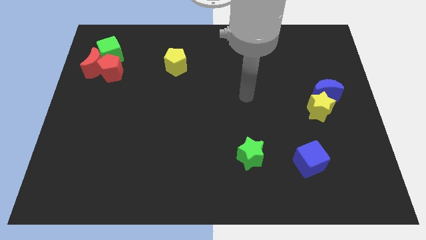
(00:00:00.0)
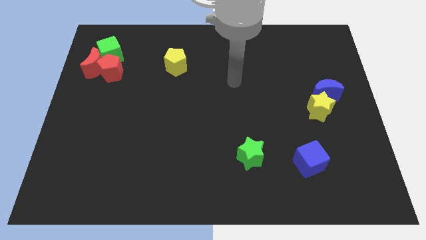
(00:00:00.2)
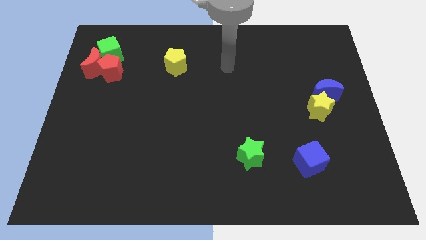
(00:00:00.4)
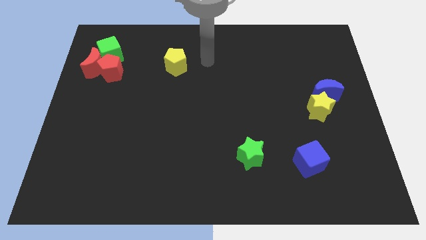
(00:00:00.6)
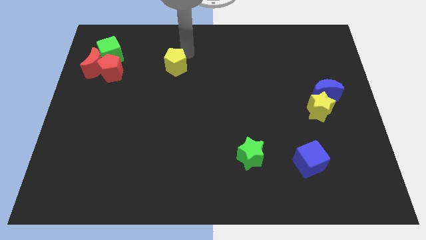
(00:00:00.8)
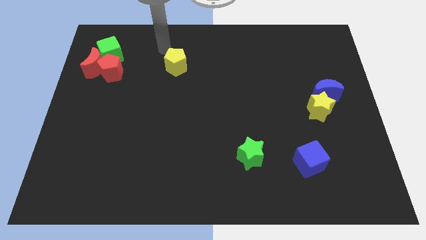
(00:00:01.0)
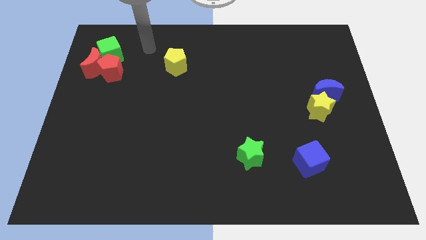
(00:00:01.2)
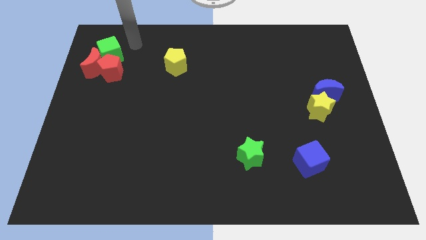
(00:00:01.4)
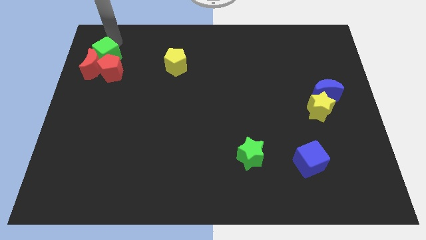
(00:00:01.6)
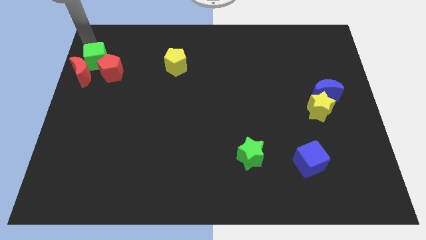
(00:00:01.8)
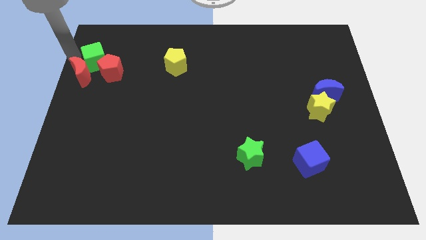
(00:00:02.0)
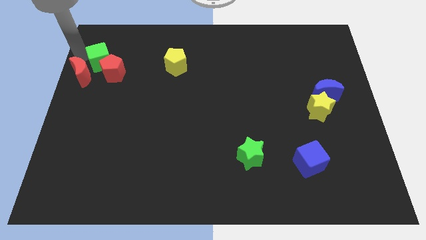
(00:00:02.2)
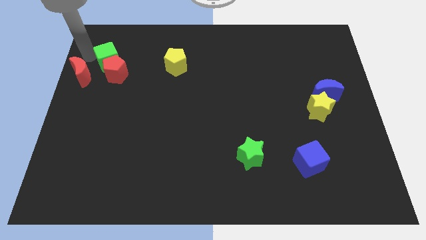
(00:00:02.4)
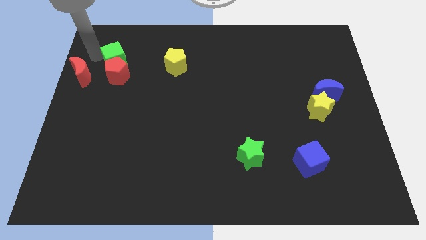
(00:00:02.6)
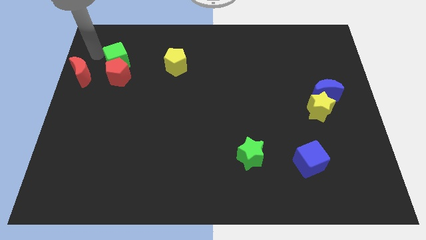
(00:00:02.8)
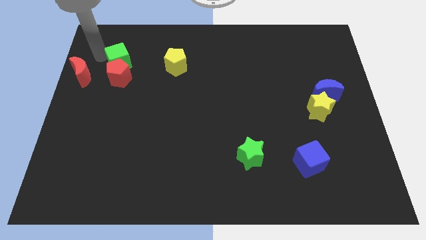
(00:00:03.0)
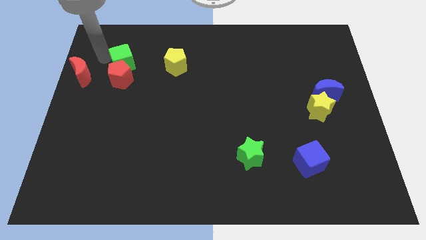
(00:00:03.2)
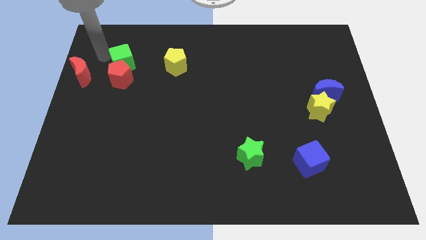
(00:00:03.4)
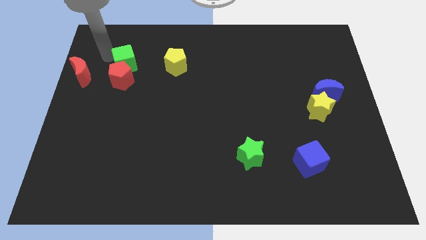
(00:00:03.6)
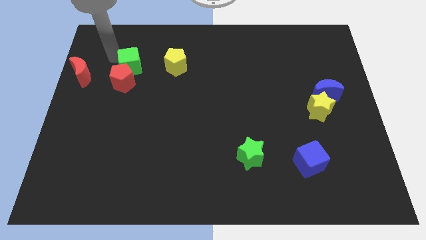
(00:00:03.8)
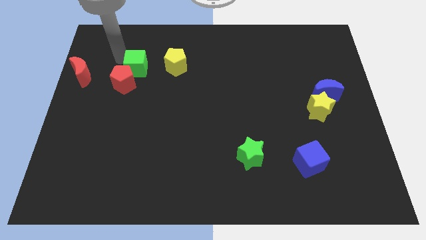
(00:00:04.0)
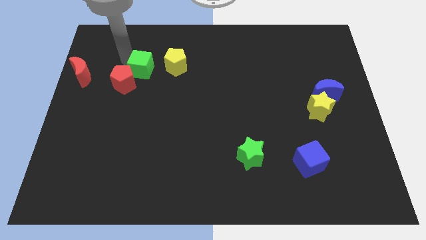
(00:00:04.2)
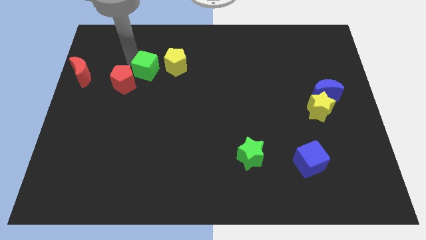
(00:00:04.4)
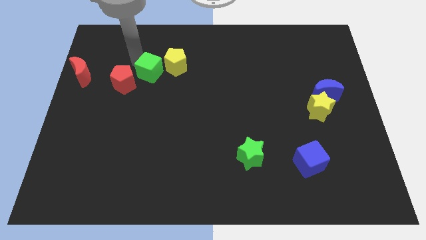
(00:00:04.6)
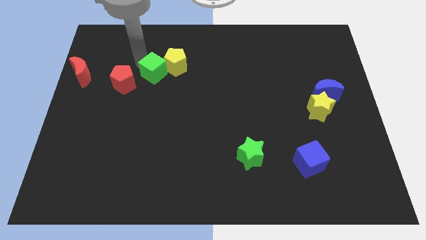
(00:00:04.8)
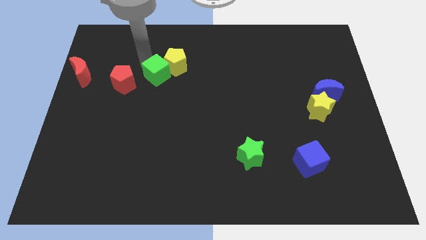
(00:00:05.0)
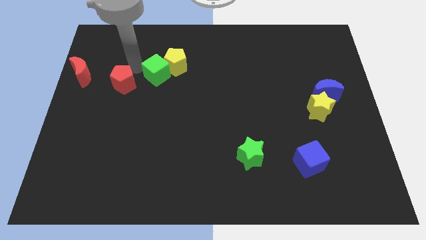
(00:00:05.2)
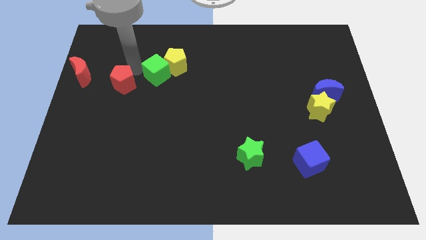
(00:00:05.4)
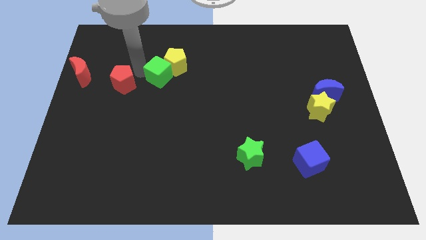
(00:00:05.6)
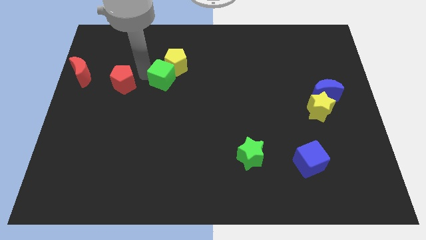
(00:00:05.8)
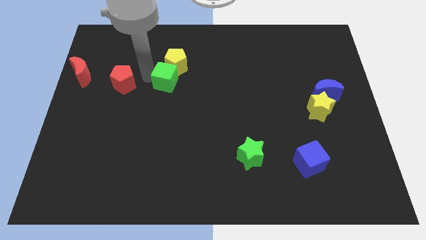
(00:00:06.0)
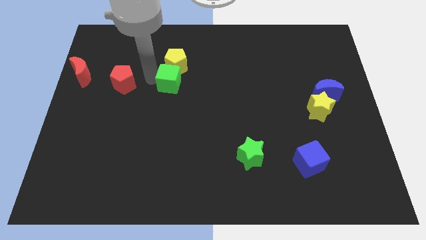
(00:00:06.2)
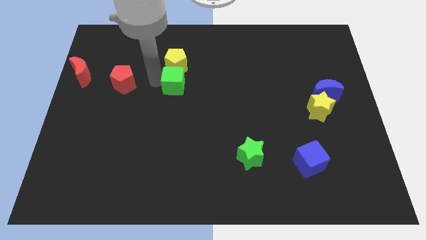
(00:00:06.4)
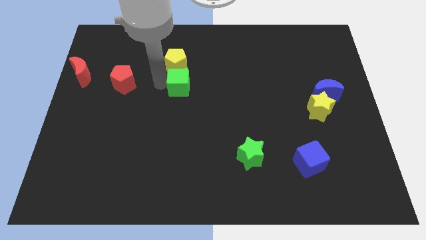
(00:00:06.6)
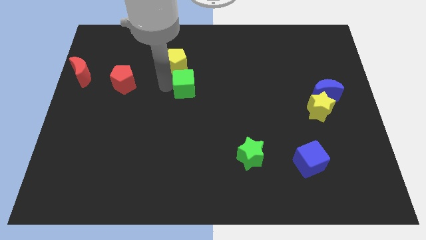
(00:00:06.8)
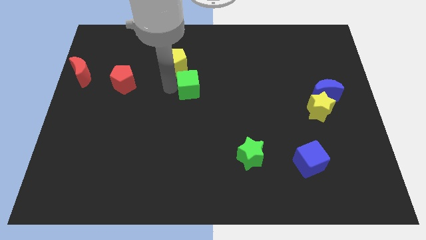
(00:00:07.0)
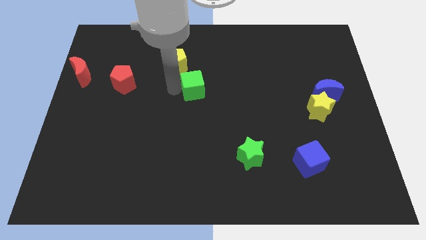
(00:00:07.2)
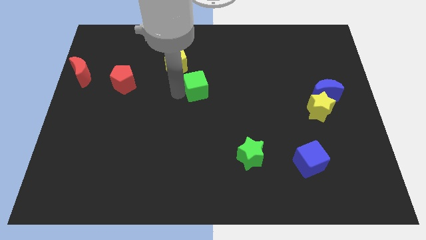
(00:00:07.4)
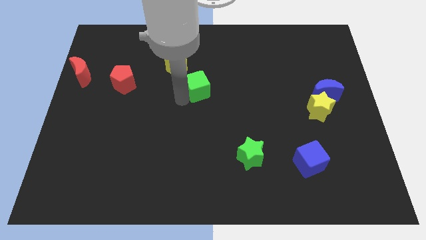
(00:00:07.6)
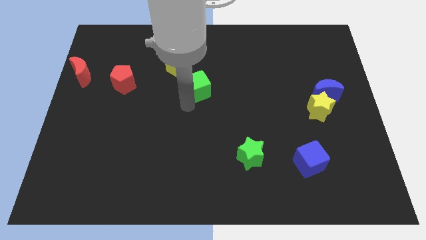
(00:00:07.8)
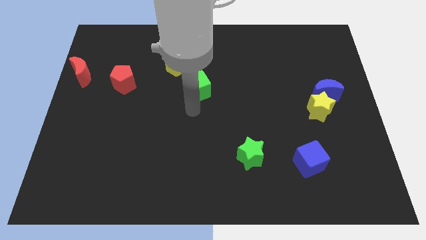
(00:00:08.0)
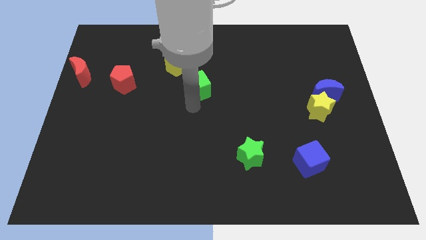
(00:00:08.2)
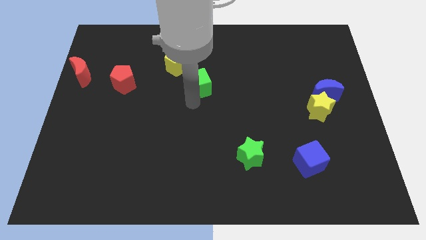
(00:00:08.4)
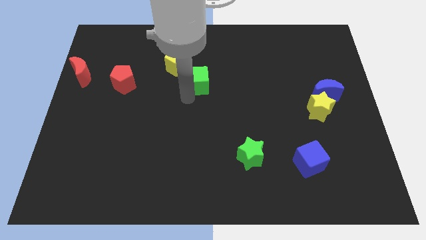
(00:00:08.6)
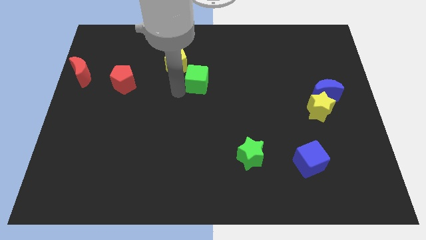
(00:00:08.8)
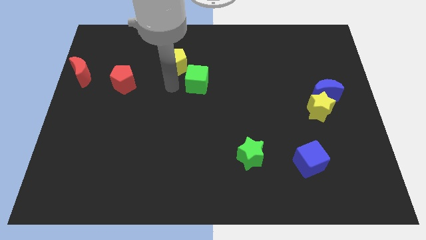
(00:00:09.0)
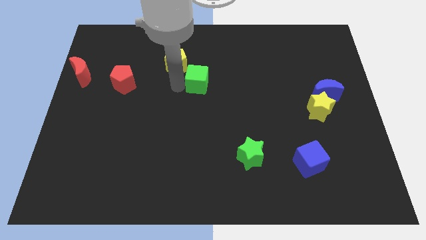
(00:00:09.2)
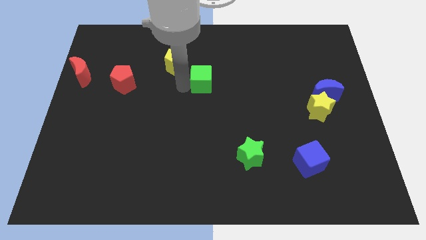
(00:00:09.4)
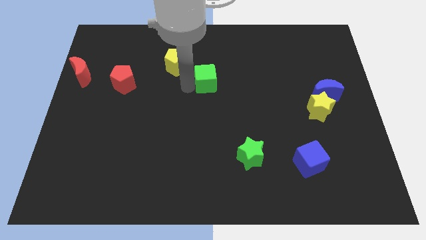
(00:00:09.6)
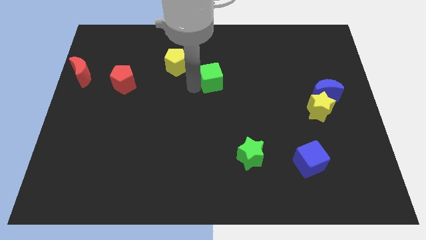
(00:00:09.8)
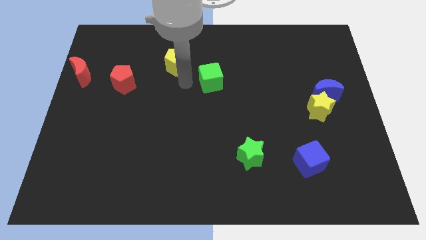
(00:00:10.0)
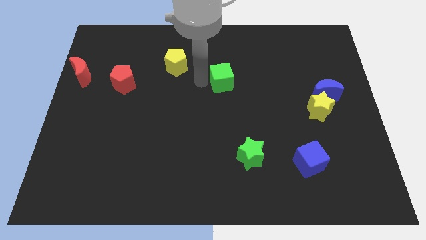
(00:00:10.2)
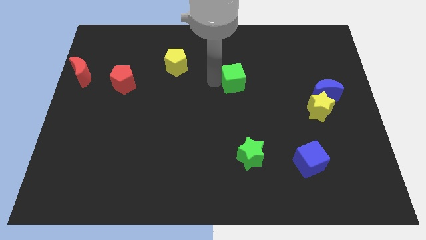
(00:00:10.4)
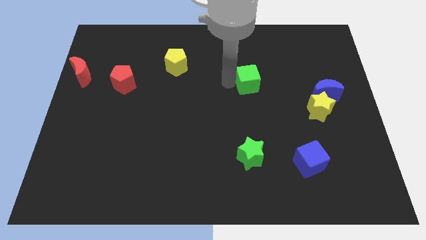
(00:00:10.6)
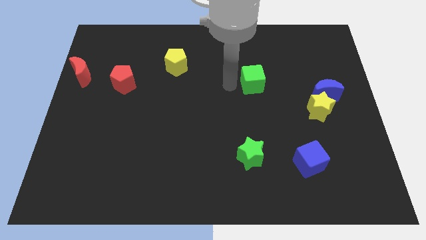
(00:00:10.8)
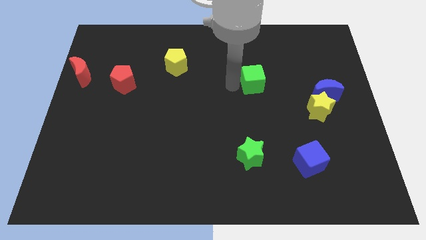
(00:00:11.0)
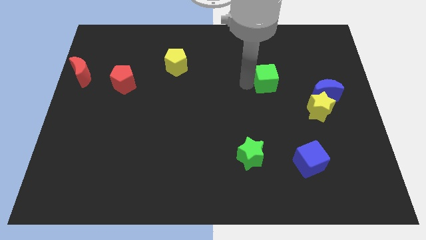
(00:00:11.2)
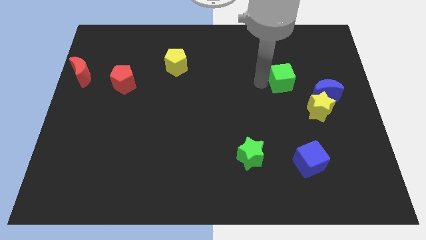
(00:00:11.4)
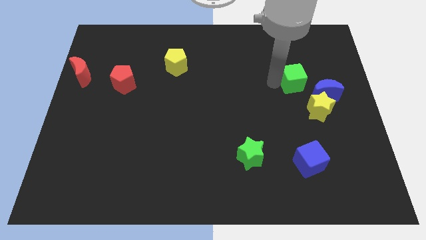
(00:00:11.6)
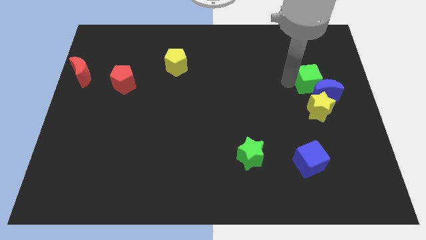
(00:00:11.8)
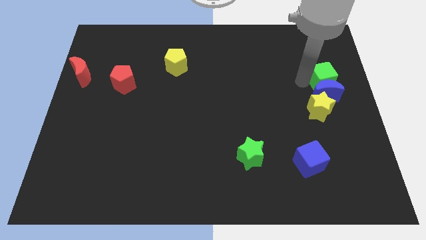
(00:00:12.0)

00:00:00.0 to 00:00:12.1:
move the green cube to the center right
